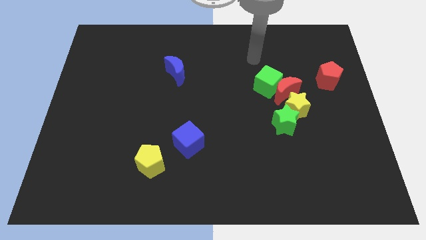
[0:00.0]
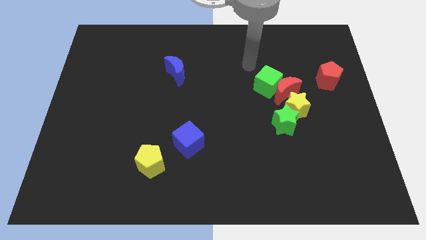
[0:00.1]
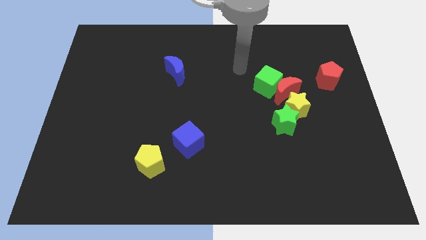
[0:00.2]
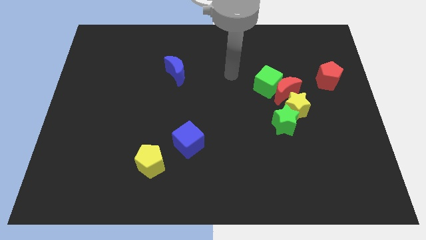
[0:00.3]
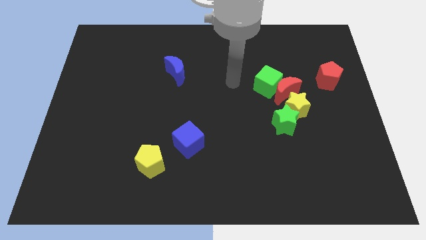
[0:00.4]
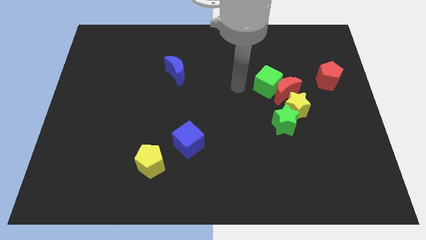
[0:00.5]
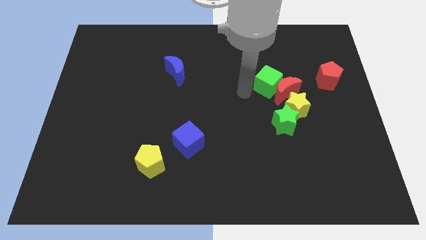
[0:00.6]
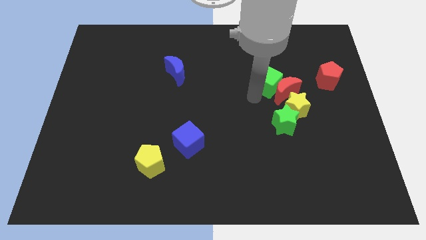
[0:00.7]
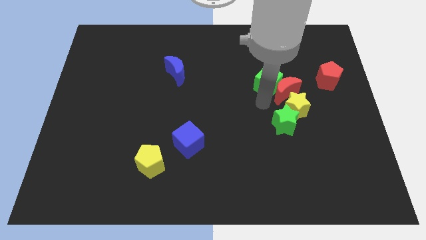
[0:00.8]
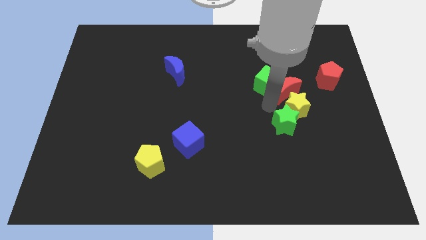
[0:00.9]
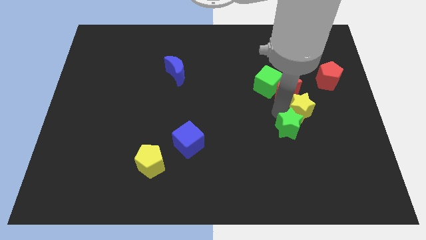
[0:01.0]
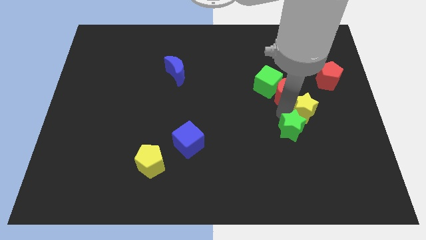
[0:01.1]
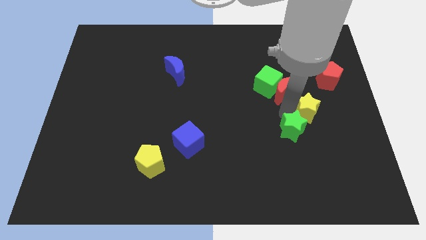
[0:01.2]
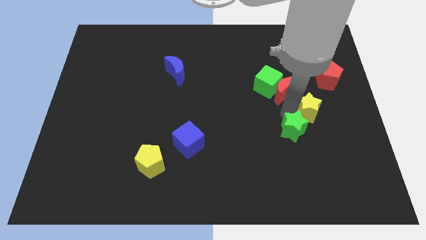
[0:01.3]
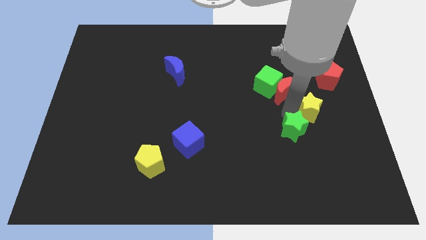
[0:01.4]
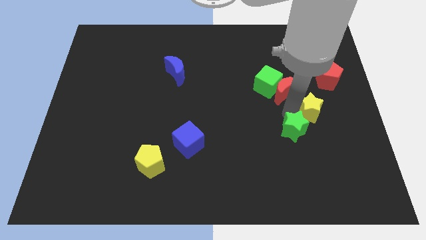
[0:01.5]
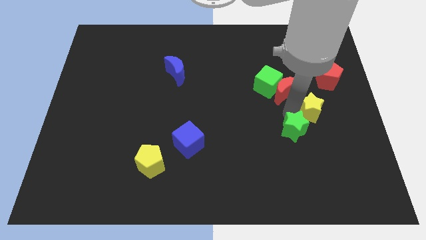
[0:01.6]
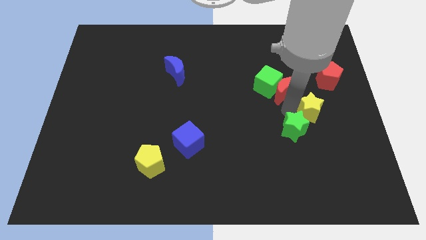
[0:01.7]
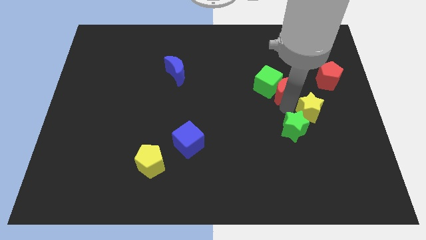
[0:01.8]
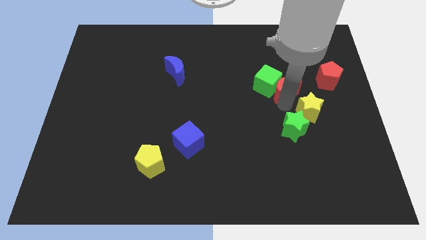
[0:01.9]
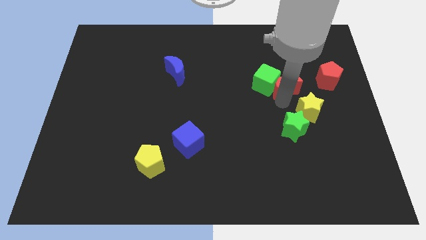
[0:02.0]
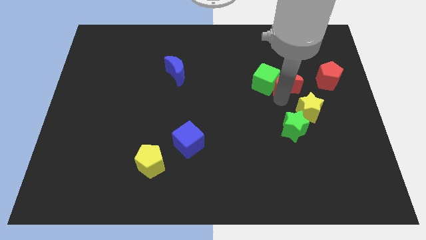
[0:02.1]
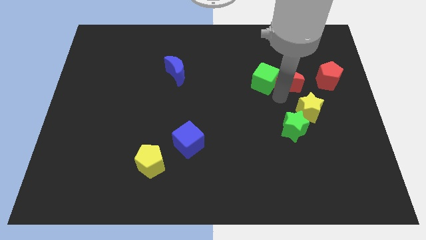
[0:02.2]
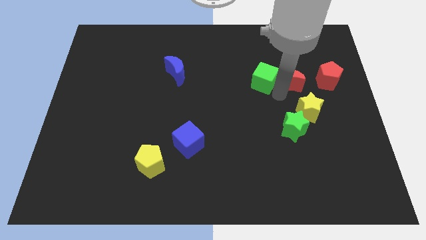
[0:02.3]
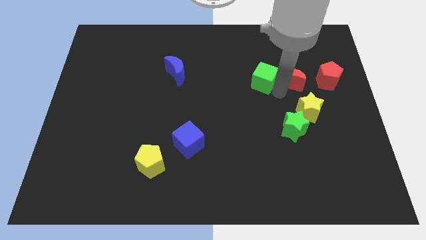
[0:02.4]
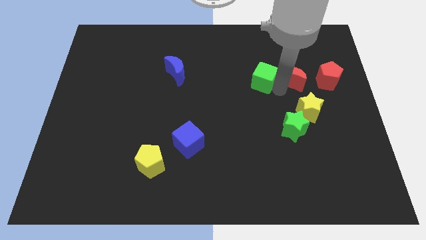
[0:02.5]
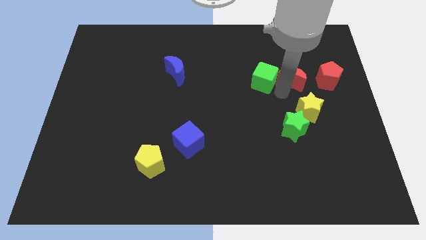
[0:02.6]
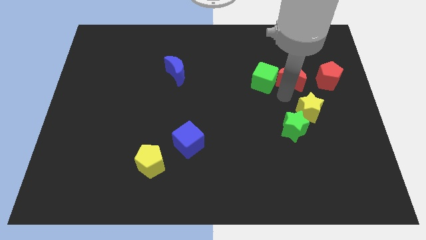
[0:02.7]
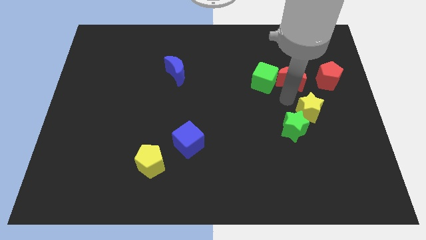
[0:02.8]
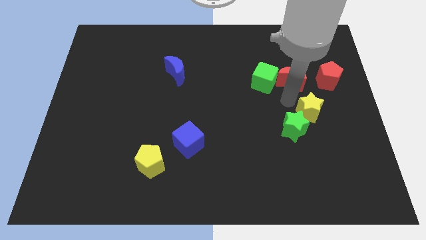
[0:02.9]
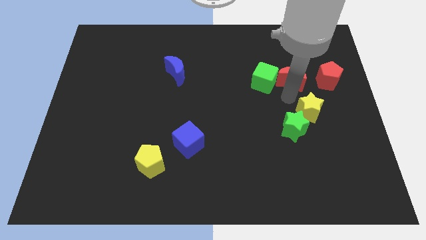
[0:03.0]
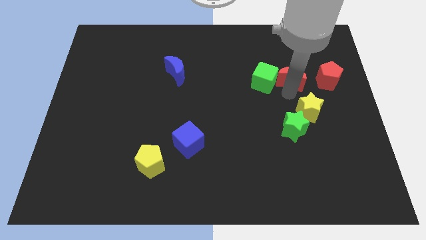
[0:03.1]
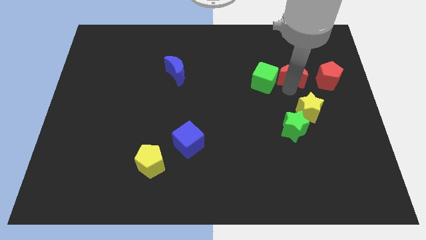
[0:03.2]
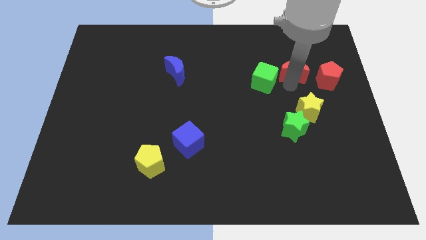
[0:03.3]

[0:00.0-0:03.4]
move the red moon away from the green cube, yellow star, and green star

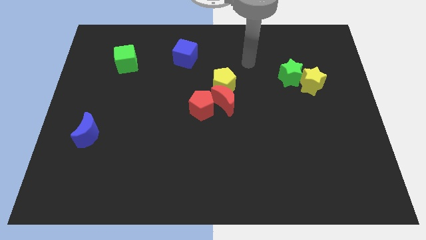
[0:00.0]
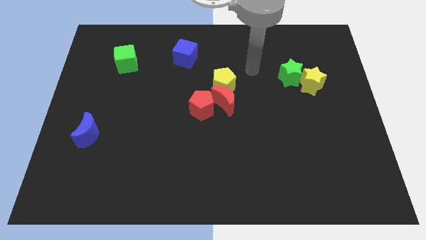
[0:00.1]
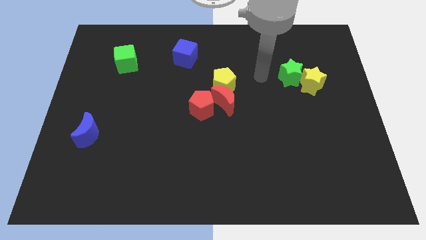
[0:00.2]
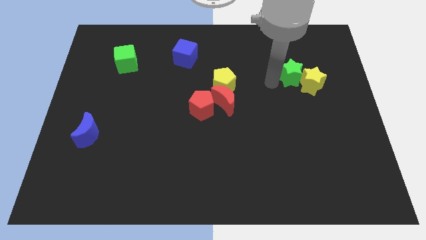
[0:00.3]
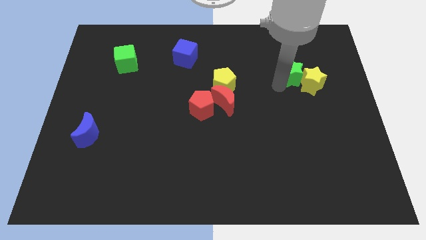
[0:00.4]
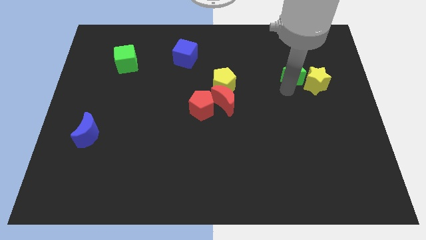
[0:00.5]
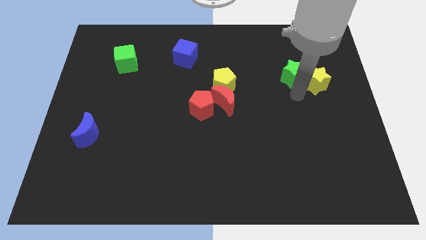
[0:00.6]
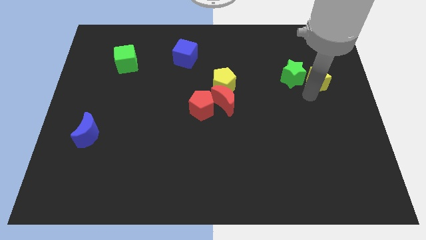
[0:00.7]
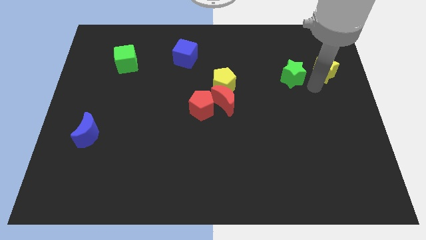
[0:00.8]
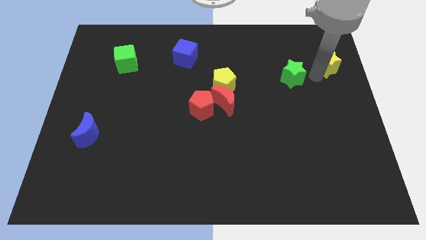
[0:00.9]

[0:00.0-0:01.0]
separate the green star from the yellow star

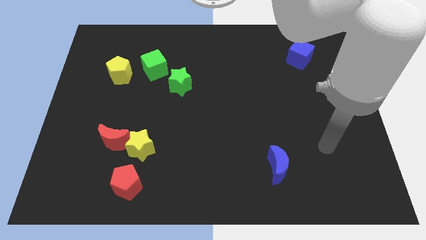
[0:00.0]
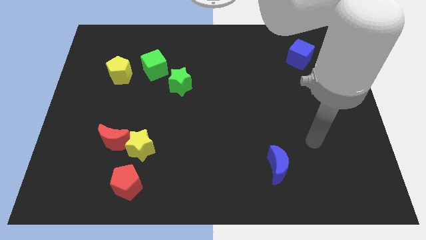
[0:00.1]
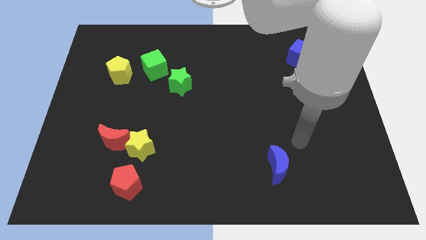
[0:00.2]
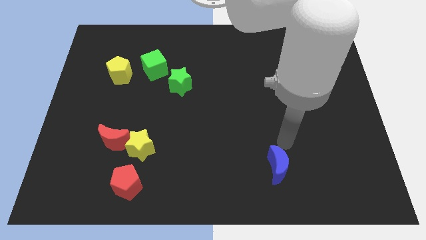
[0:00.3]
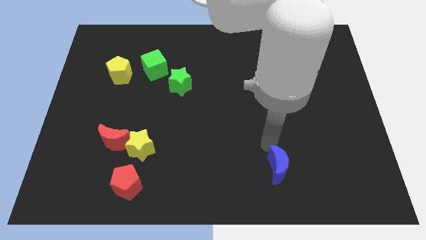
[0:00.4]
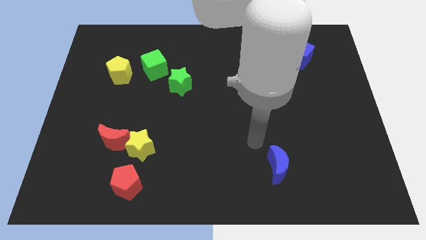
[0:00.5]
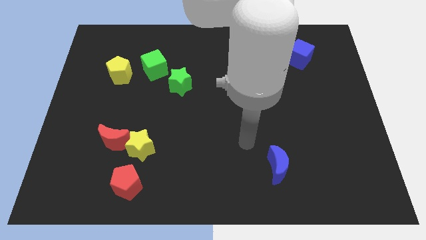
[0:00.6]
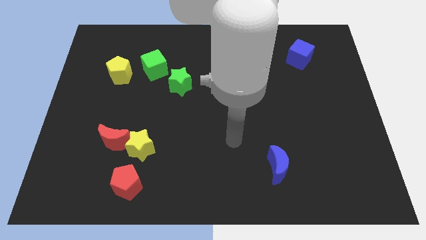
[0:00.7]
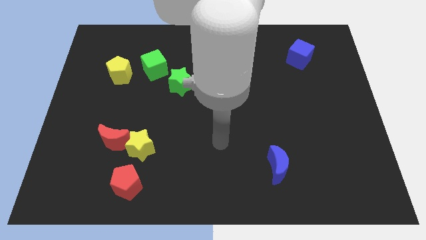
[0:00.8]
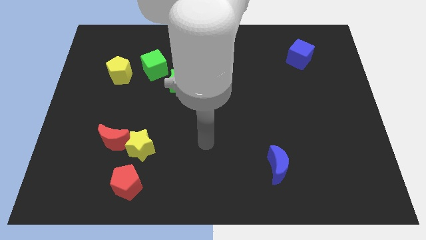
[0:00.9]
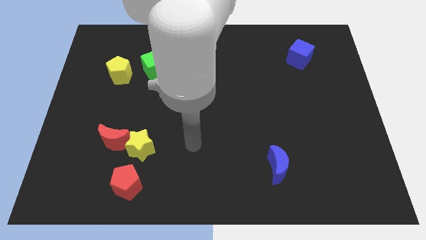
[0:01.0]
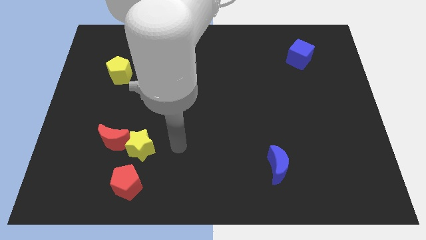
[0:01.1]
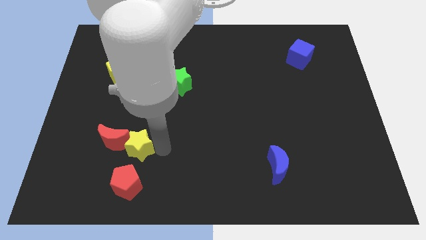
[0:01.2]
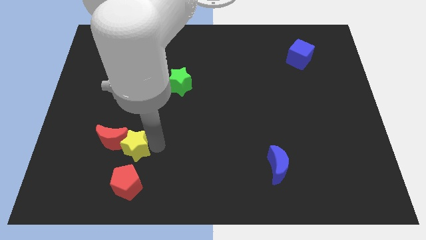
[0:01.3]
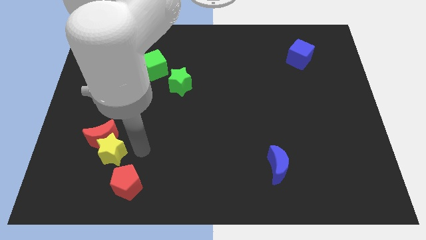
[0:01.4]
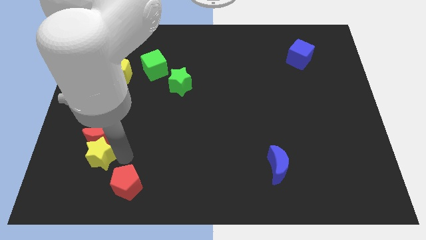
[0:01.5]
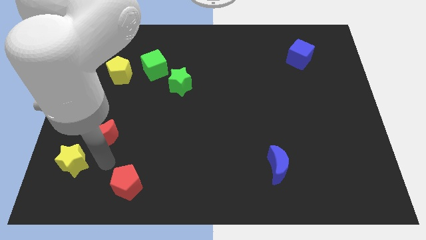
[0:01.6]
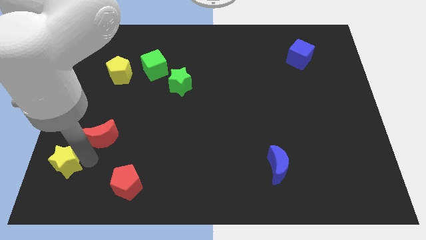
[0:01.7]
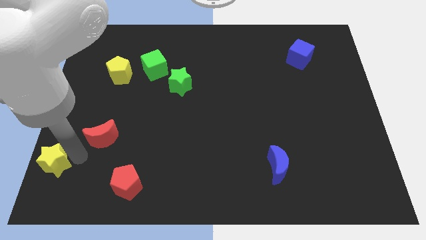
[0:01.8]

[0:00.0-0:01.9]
pull the red moon apart from the yellow star

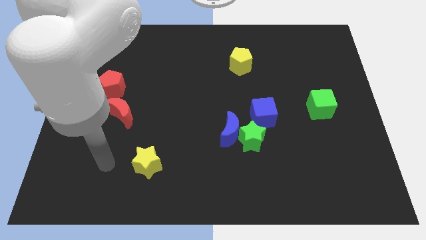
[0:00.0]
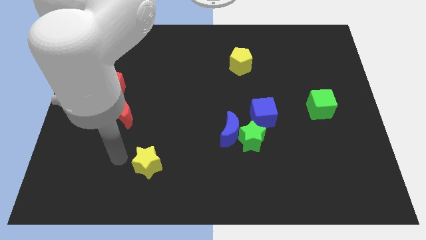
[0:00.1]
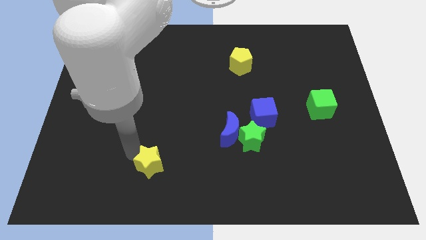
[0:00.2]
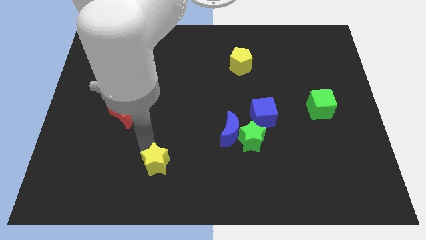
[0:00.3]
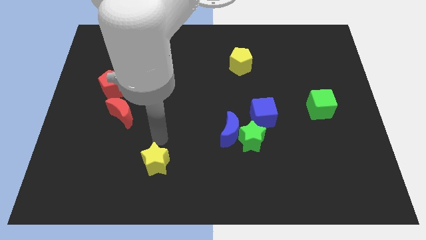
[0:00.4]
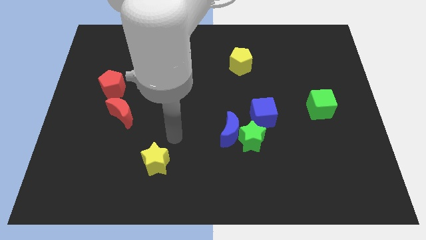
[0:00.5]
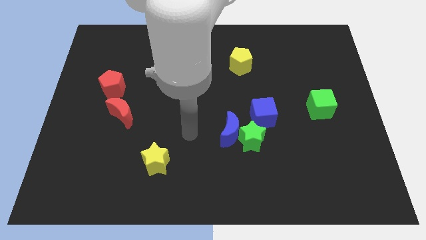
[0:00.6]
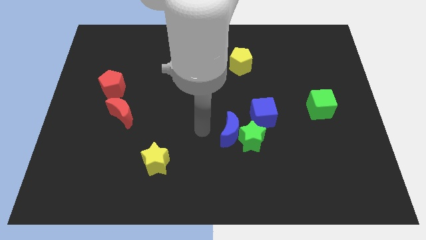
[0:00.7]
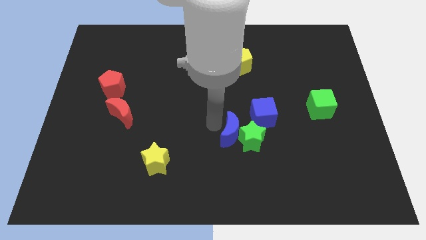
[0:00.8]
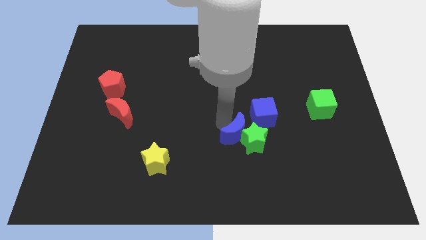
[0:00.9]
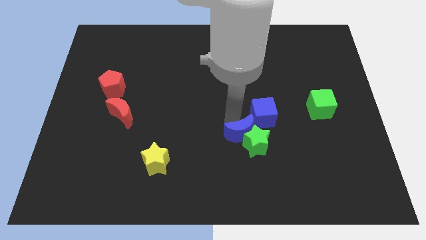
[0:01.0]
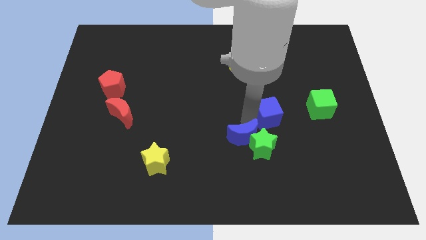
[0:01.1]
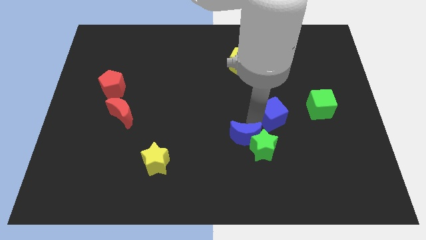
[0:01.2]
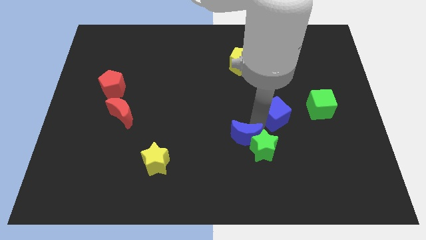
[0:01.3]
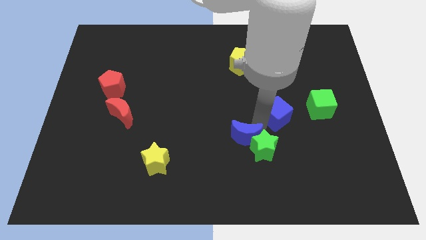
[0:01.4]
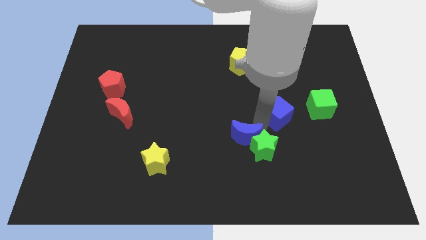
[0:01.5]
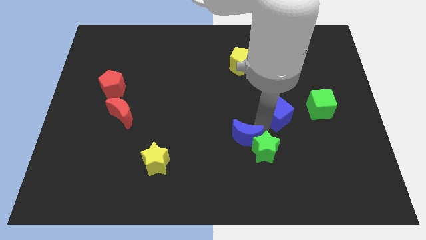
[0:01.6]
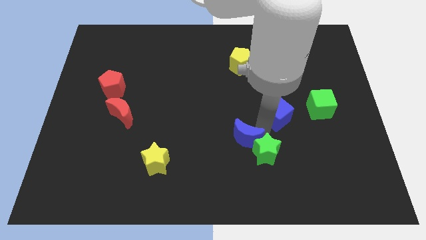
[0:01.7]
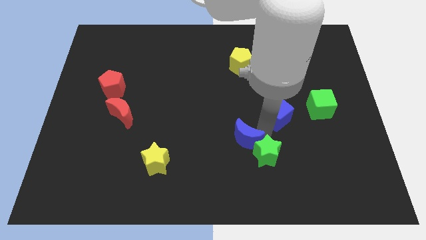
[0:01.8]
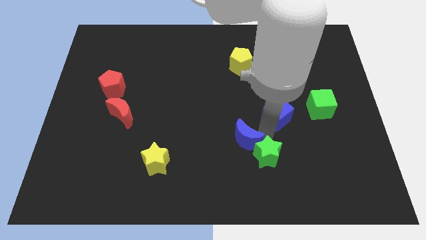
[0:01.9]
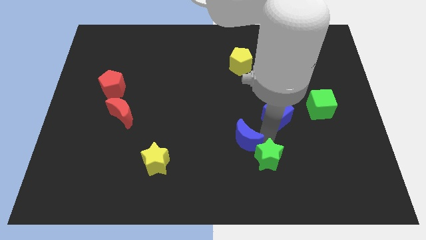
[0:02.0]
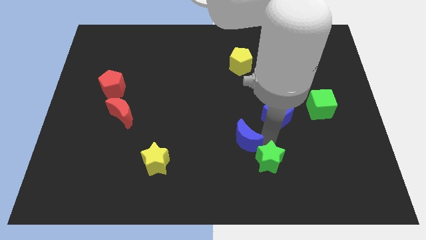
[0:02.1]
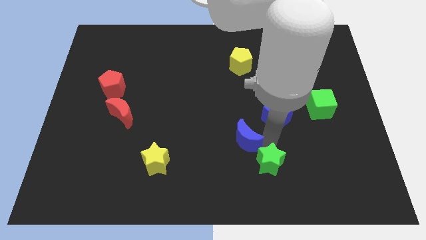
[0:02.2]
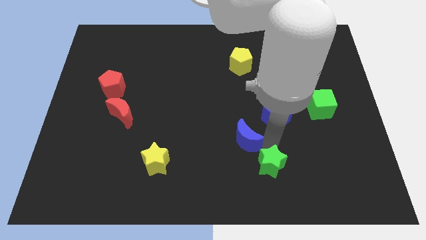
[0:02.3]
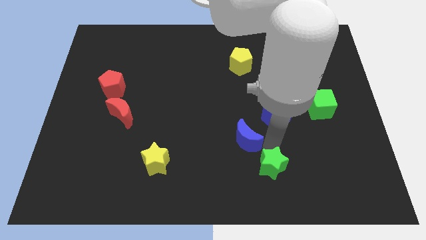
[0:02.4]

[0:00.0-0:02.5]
pull the green star apart from the blue moon and blue cube

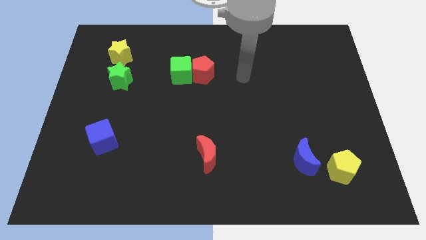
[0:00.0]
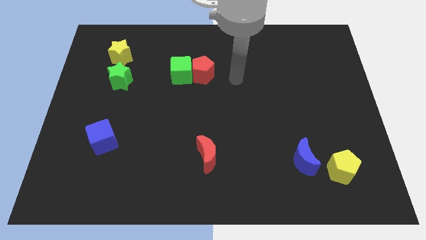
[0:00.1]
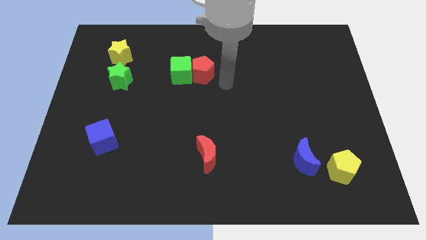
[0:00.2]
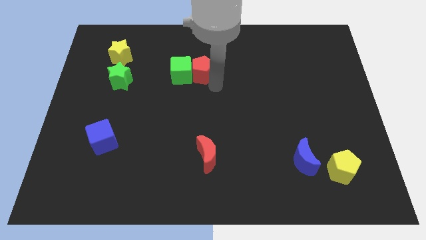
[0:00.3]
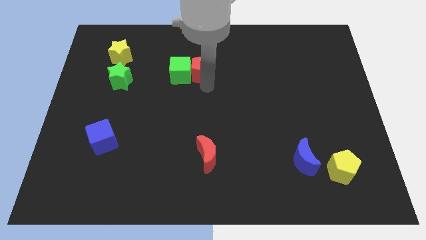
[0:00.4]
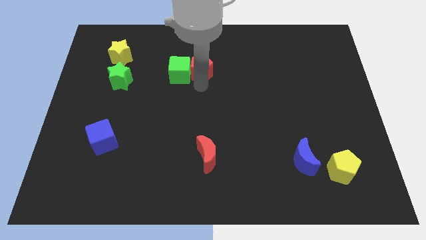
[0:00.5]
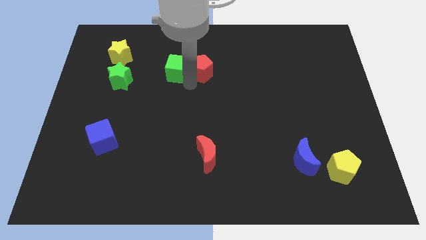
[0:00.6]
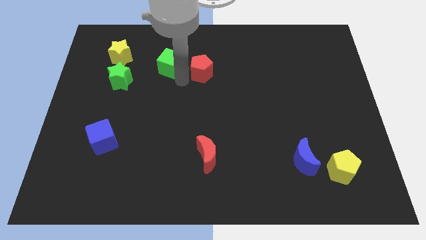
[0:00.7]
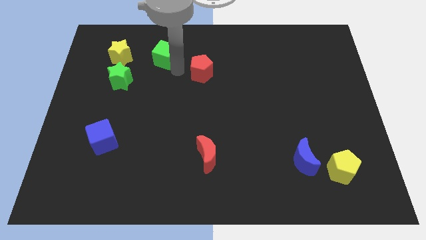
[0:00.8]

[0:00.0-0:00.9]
separate the red pentagon from the green cube
